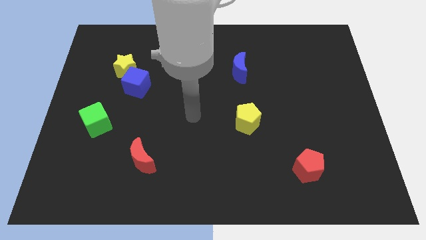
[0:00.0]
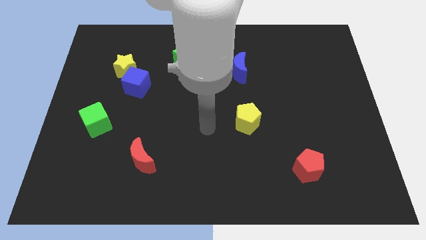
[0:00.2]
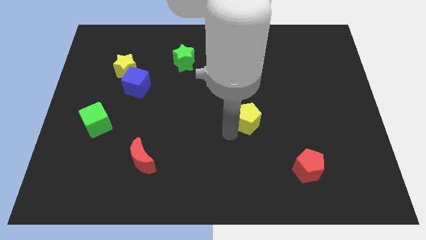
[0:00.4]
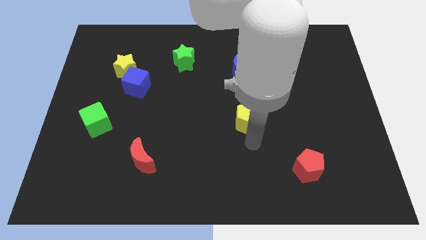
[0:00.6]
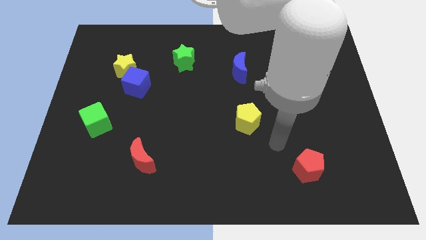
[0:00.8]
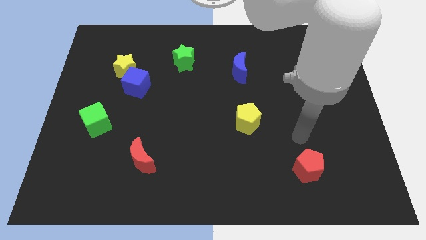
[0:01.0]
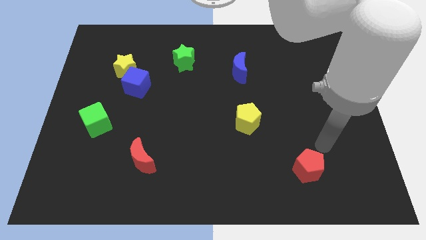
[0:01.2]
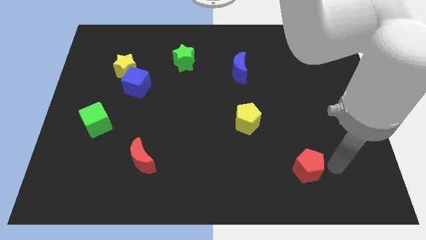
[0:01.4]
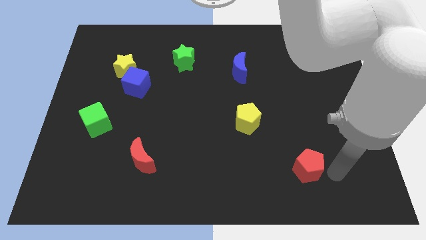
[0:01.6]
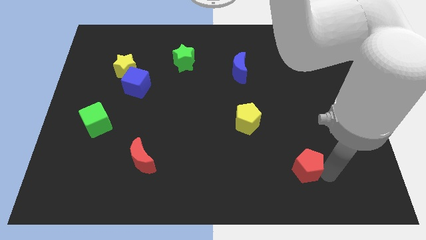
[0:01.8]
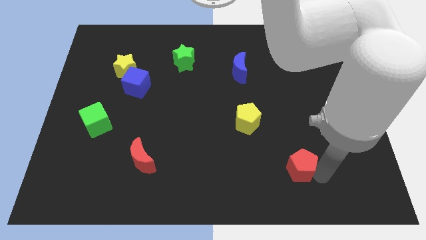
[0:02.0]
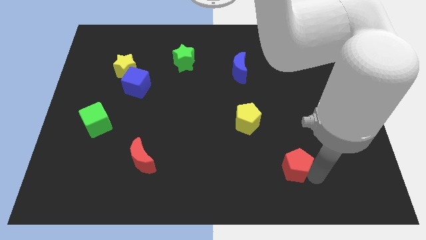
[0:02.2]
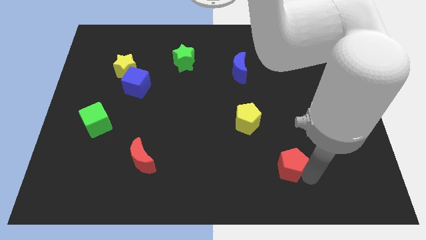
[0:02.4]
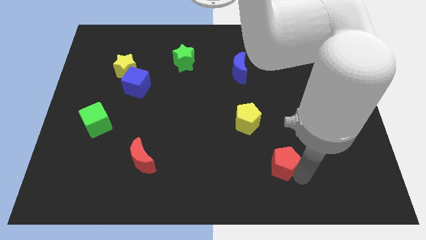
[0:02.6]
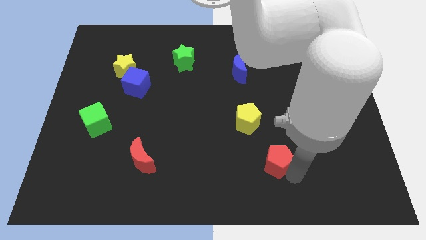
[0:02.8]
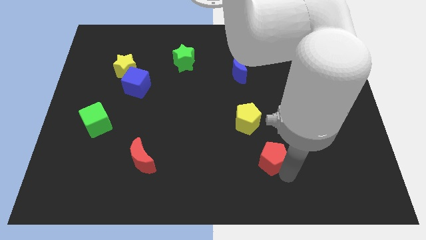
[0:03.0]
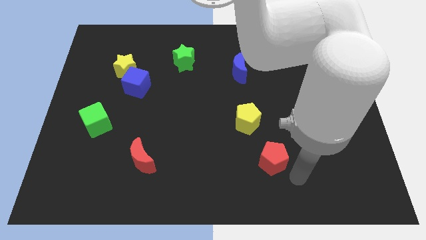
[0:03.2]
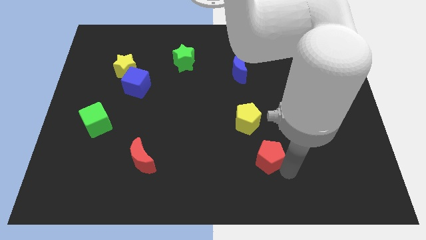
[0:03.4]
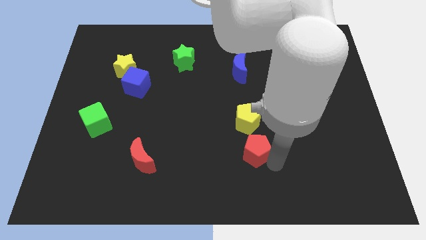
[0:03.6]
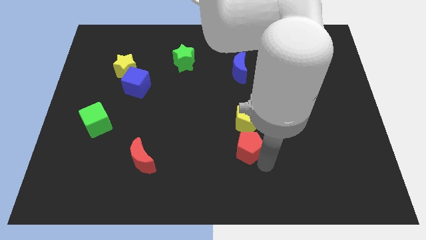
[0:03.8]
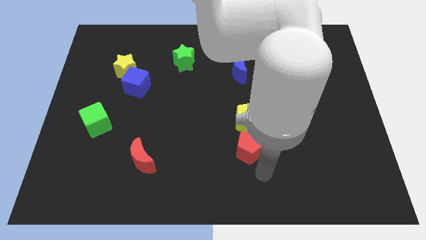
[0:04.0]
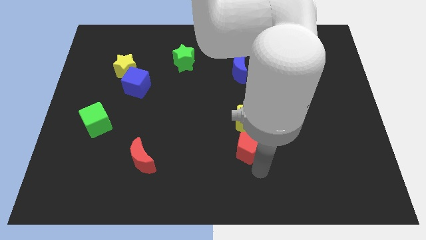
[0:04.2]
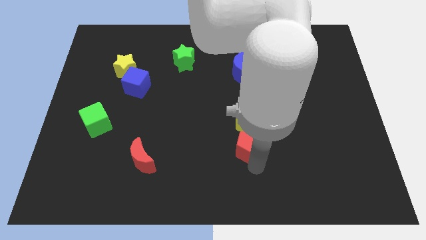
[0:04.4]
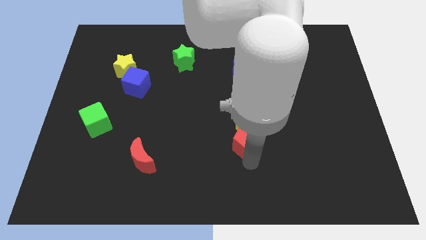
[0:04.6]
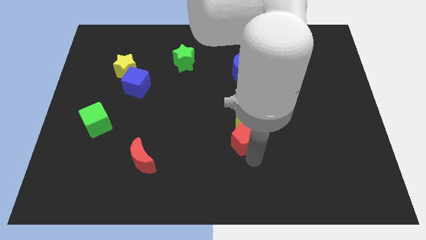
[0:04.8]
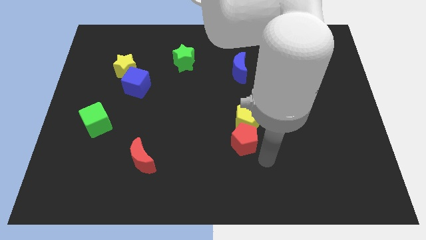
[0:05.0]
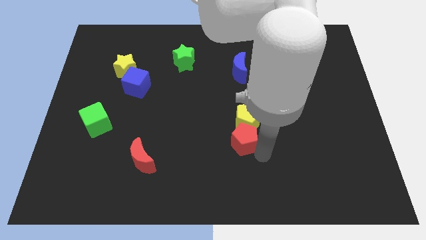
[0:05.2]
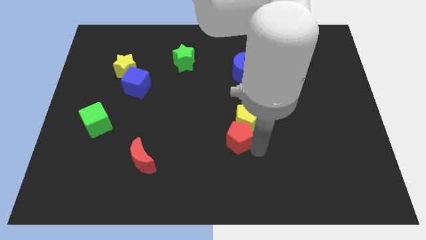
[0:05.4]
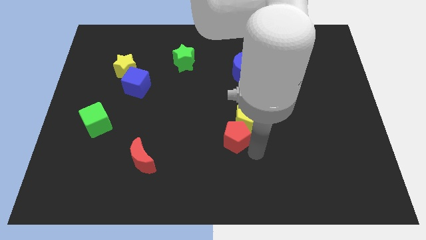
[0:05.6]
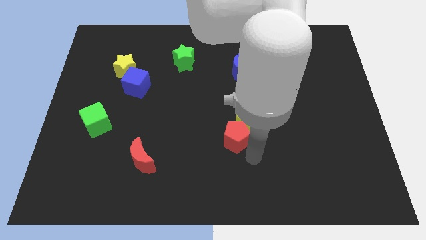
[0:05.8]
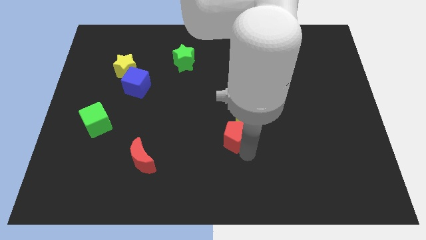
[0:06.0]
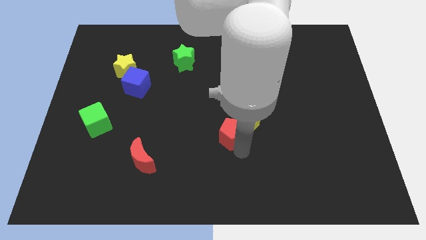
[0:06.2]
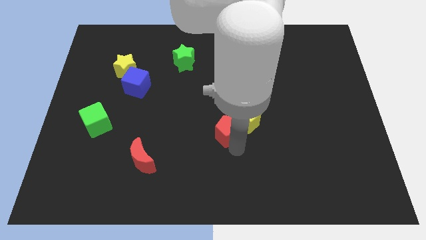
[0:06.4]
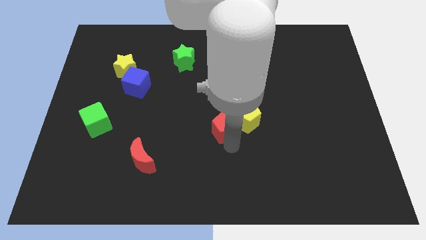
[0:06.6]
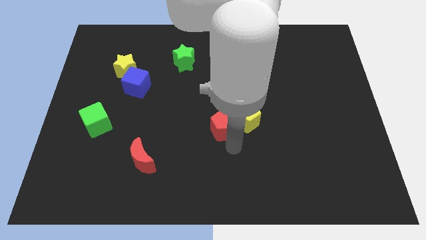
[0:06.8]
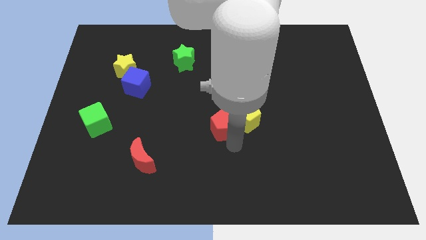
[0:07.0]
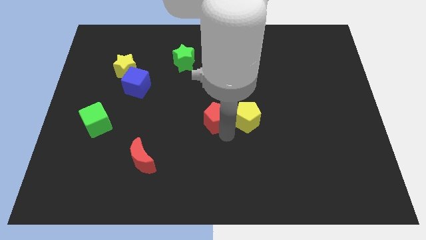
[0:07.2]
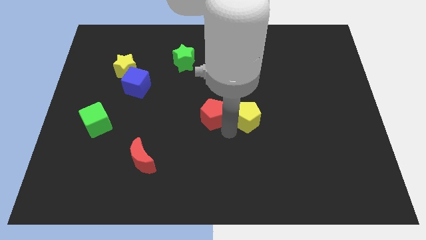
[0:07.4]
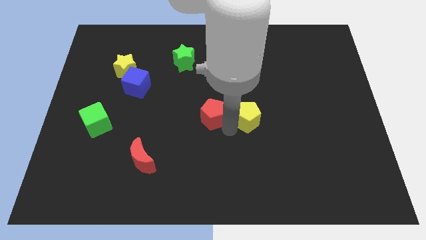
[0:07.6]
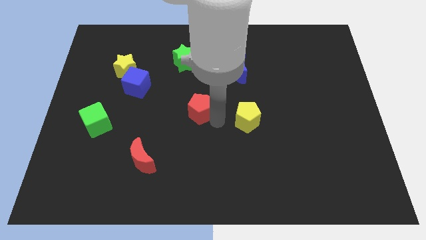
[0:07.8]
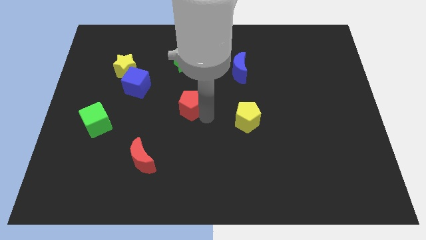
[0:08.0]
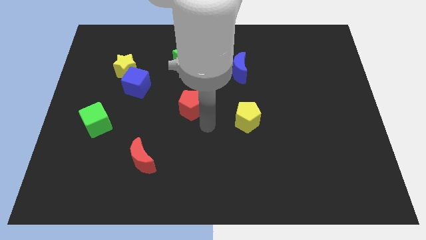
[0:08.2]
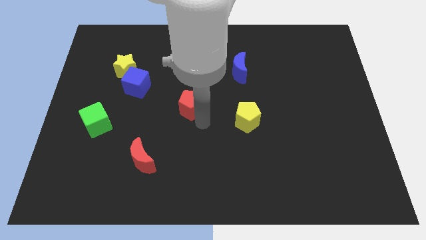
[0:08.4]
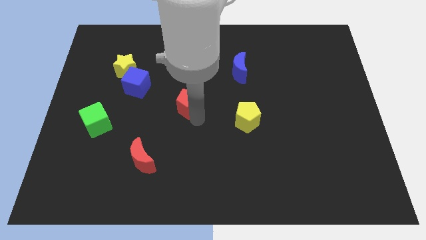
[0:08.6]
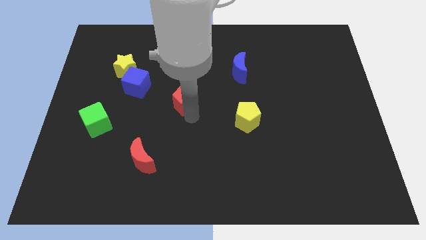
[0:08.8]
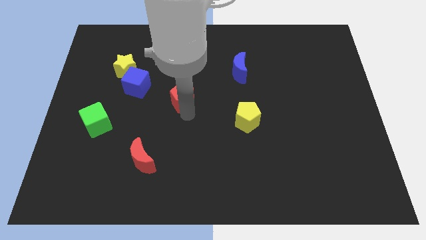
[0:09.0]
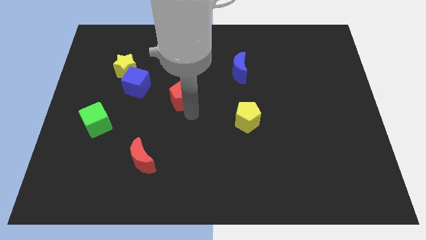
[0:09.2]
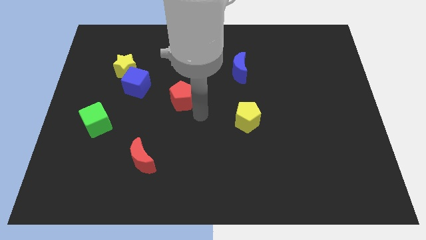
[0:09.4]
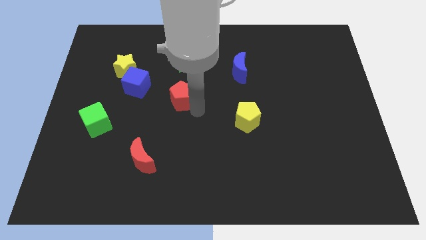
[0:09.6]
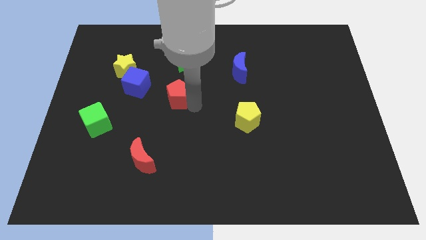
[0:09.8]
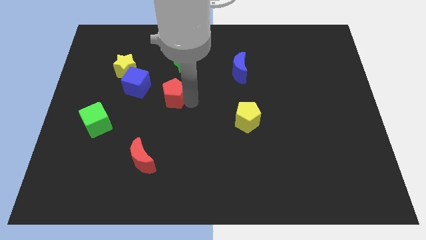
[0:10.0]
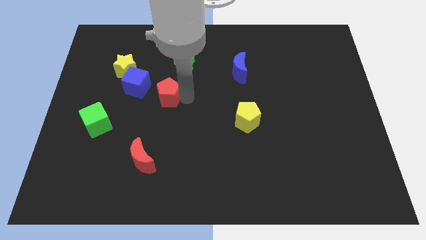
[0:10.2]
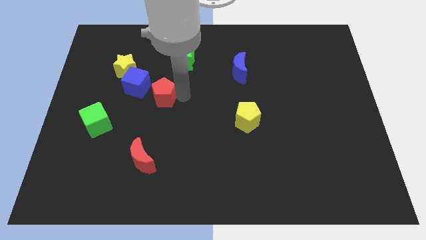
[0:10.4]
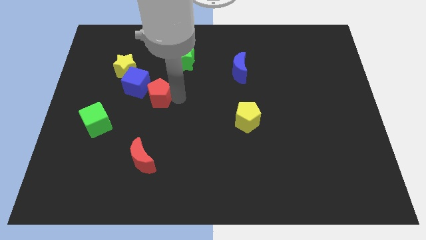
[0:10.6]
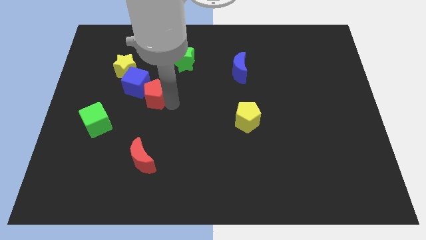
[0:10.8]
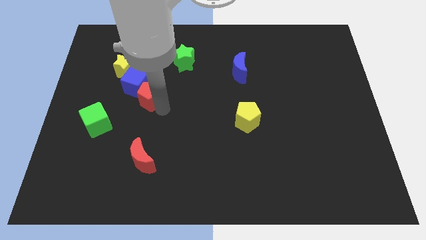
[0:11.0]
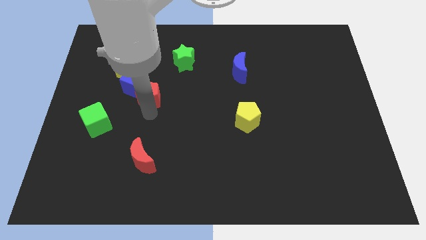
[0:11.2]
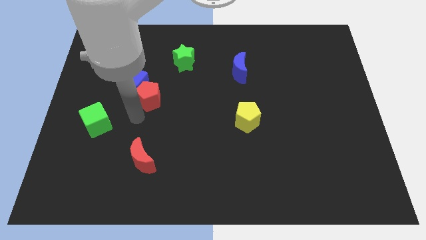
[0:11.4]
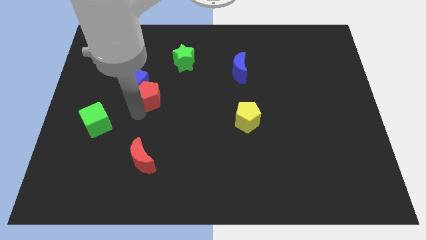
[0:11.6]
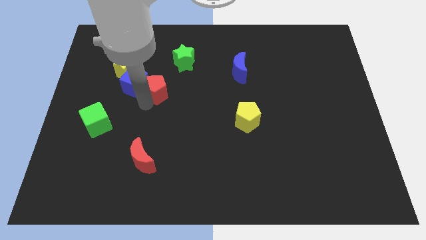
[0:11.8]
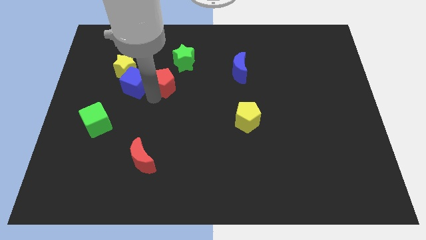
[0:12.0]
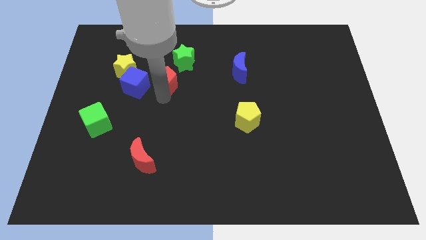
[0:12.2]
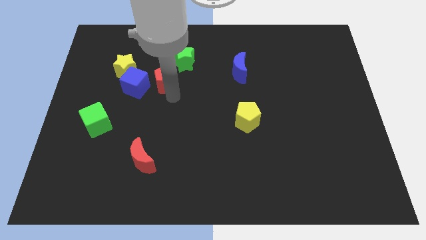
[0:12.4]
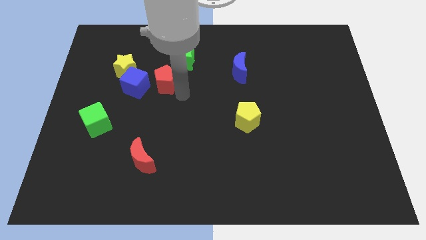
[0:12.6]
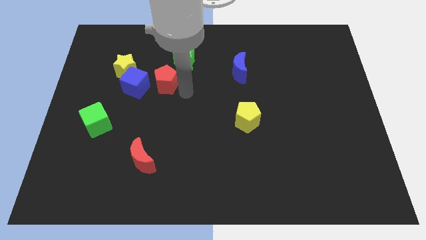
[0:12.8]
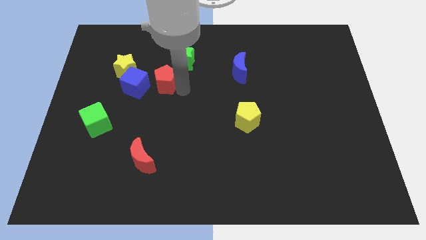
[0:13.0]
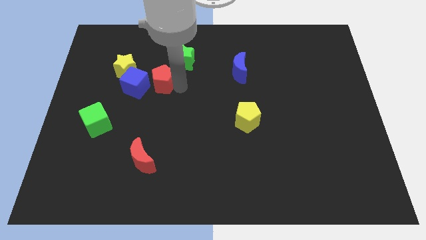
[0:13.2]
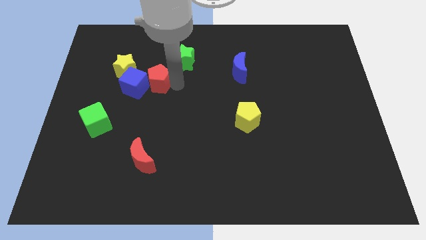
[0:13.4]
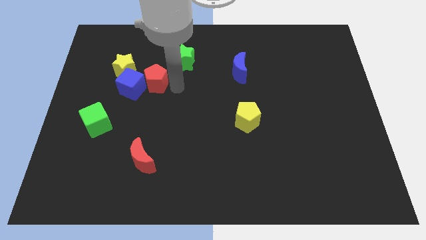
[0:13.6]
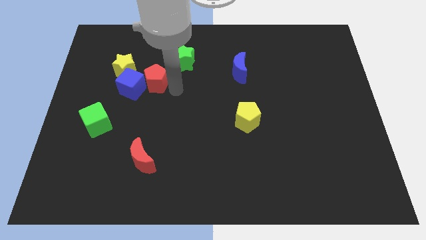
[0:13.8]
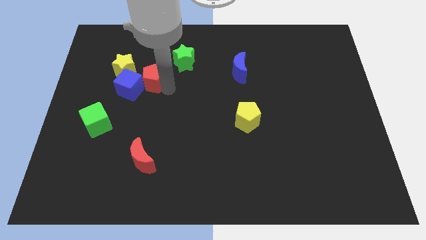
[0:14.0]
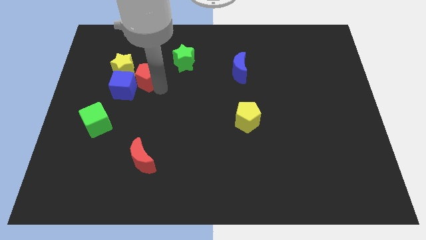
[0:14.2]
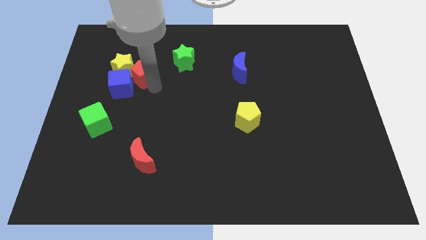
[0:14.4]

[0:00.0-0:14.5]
push the red pentagon towards the yellow star
